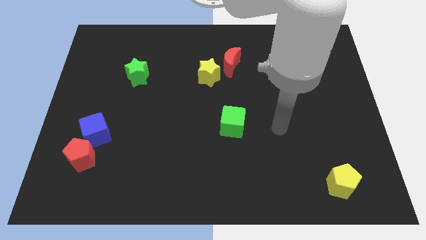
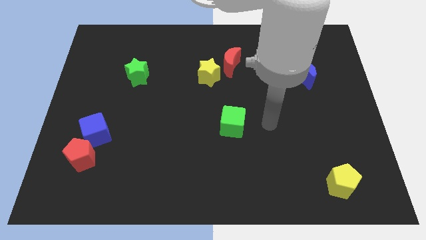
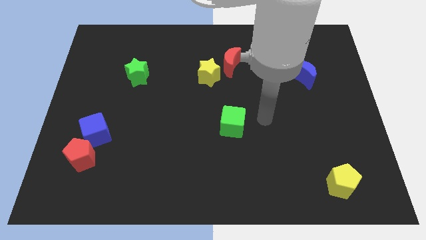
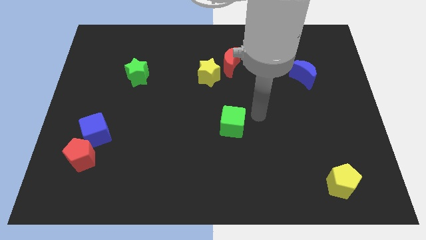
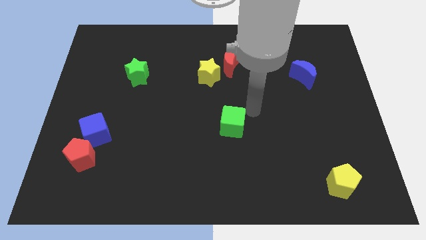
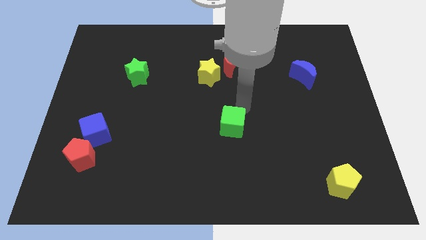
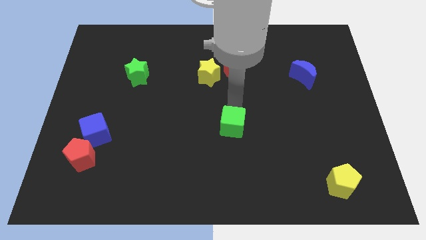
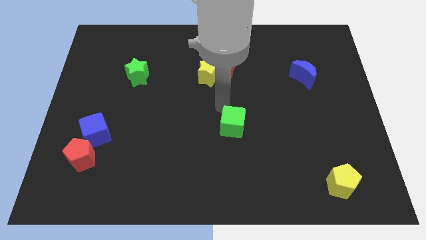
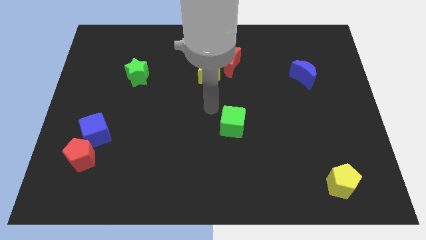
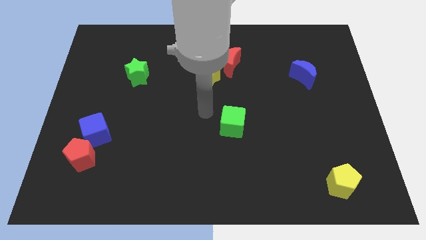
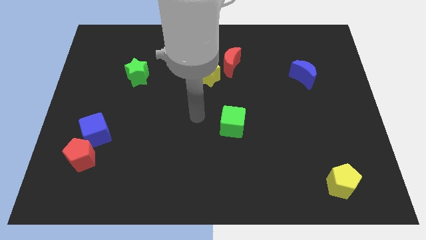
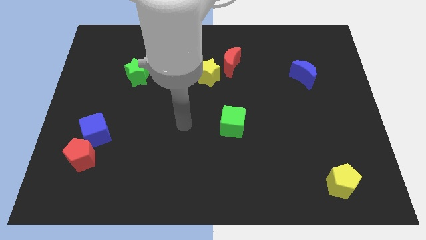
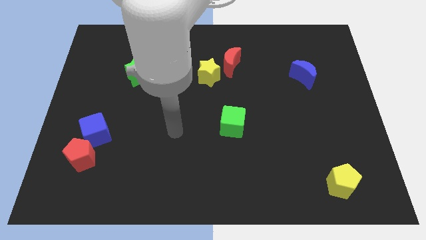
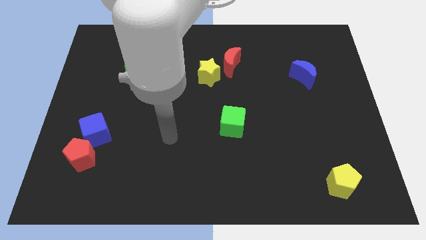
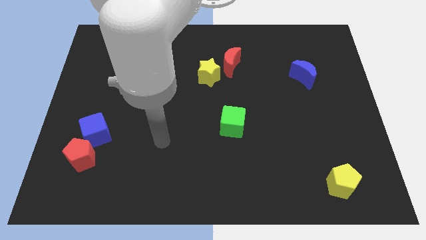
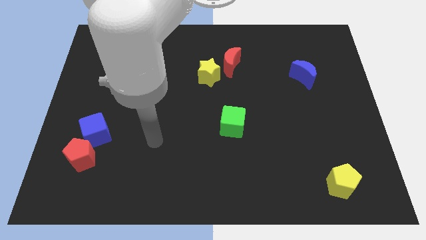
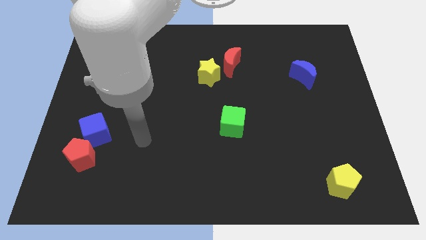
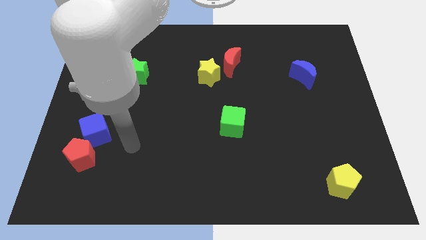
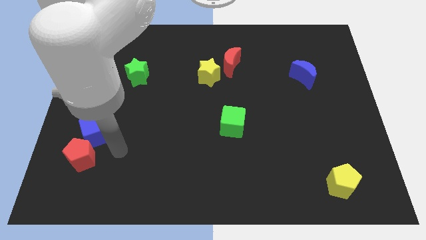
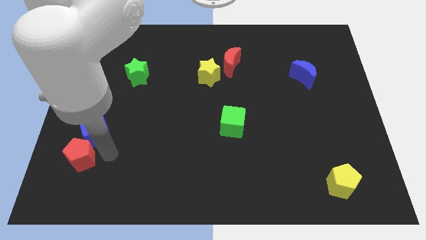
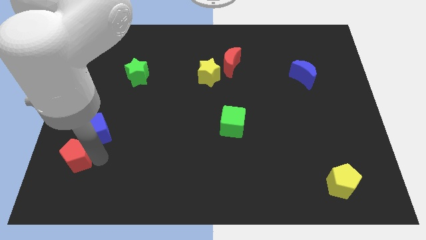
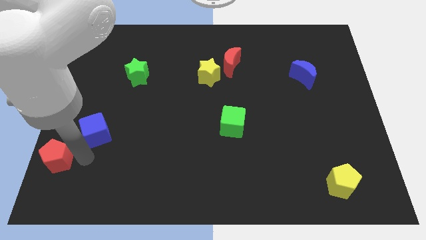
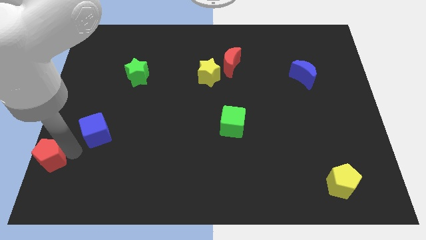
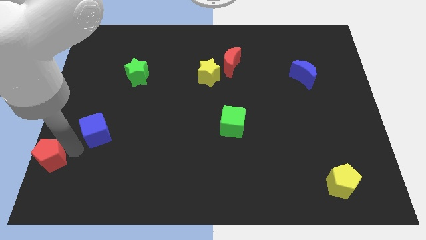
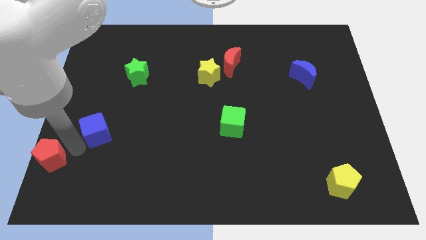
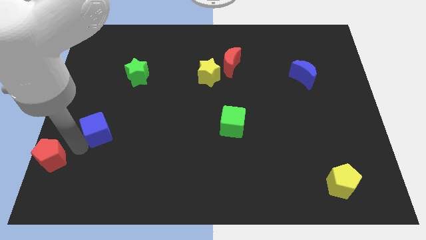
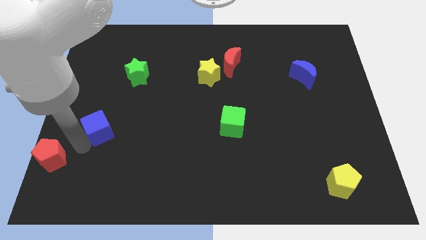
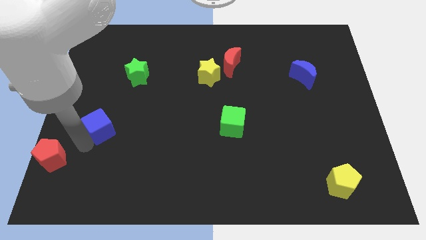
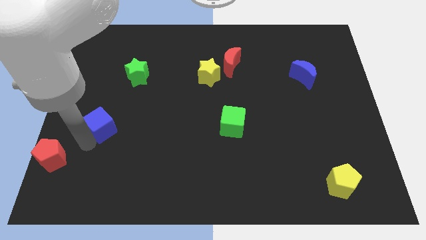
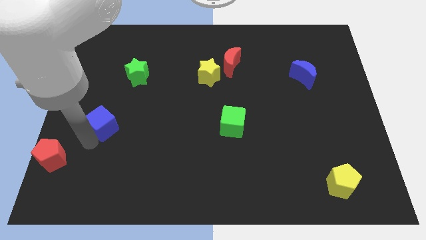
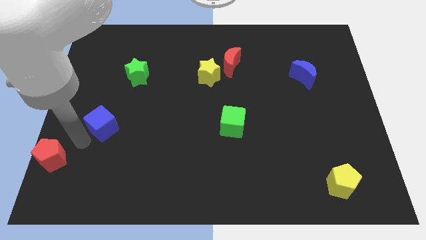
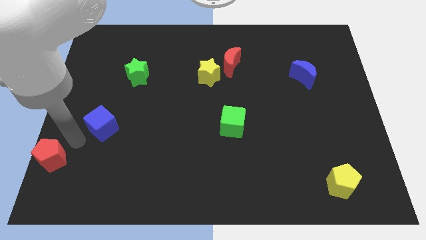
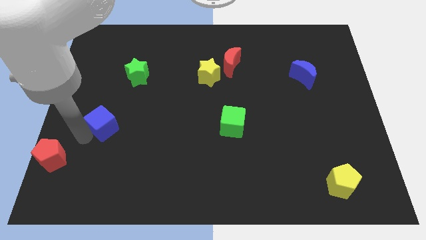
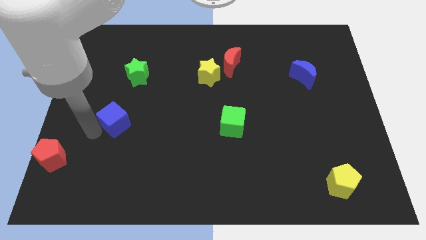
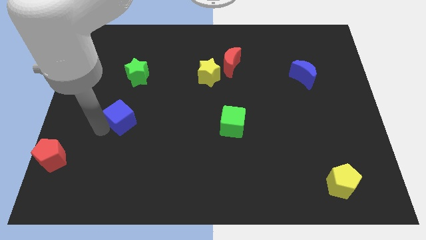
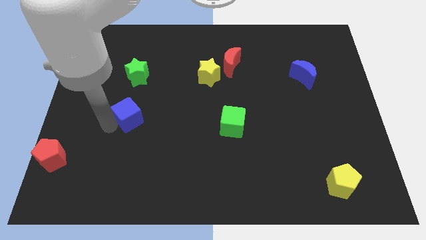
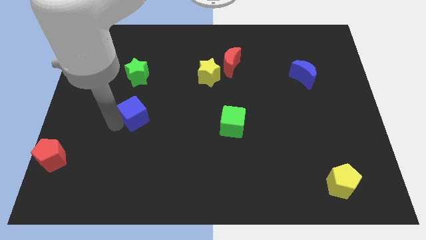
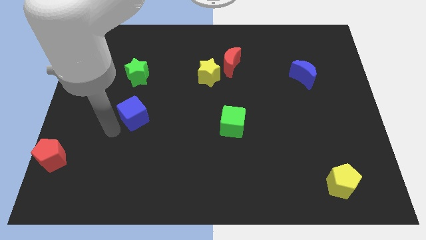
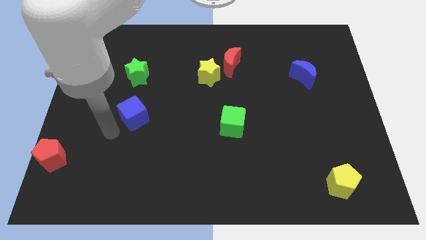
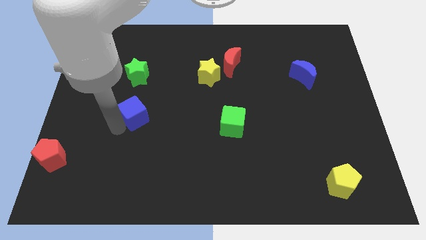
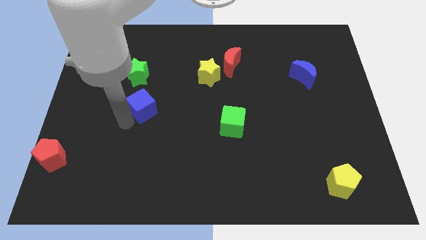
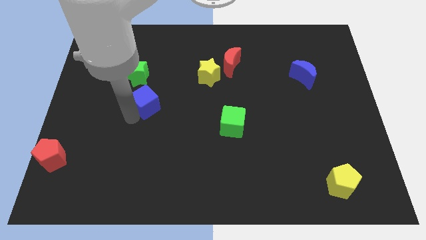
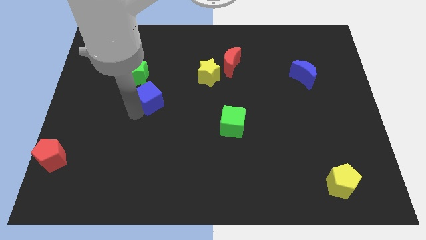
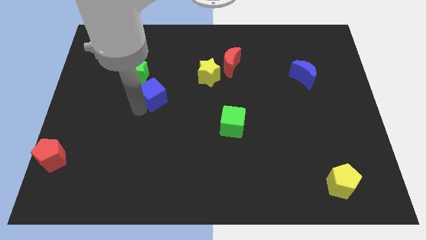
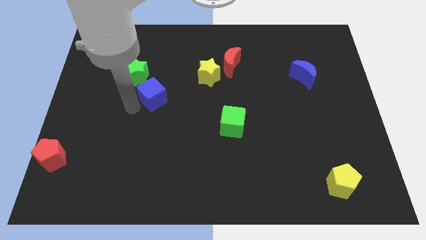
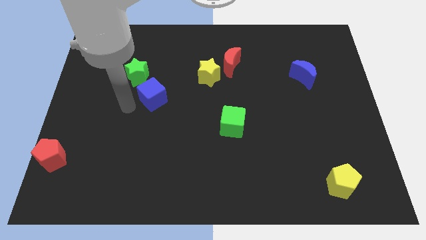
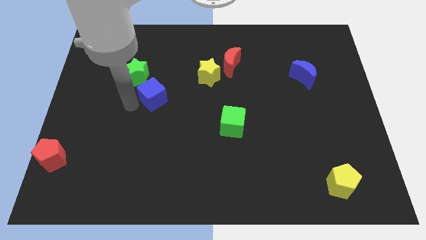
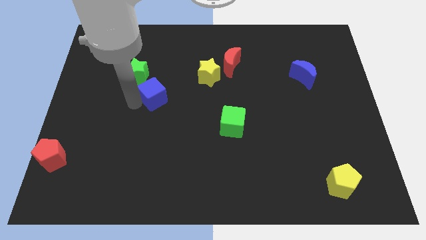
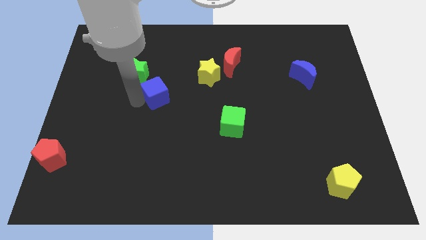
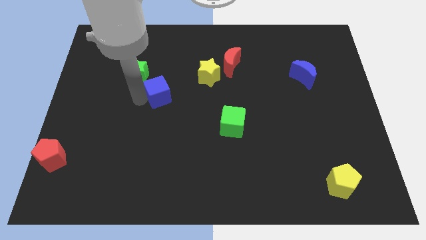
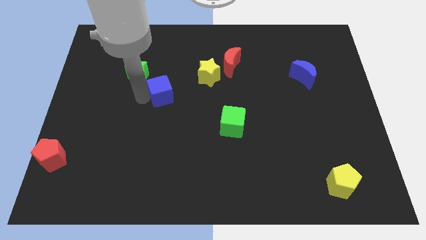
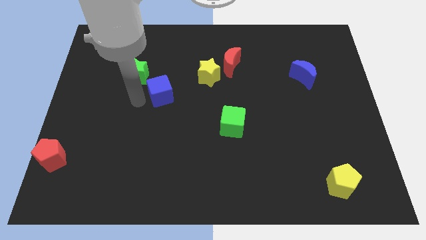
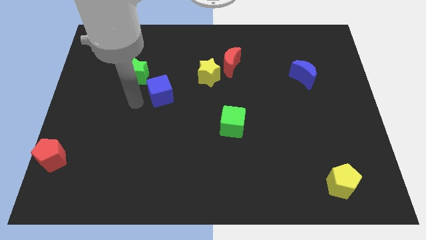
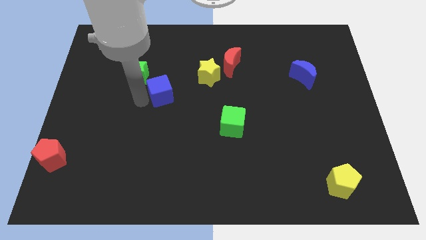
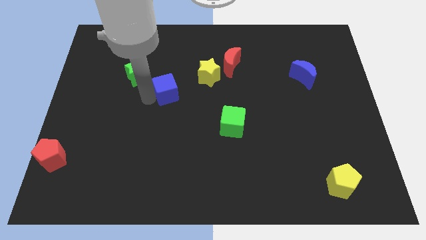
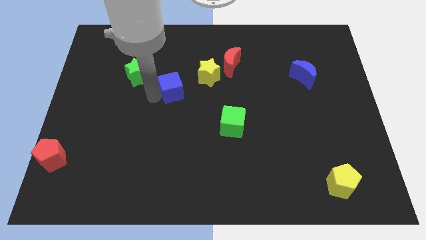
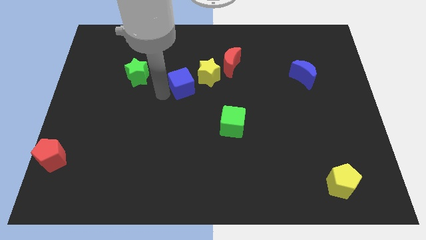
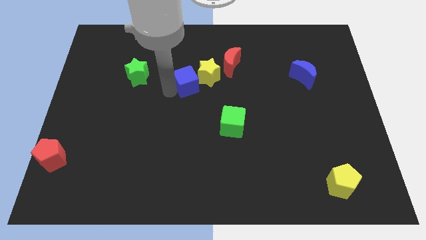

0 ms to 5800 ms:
slide the blue cube towards the yellow star
